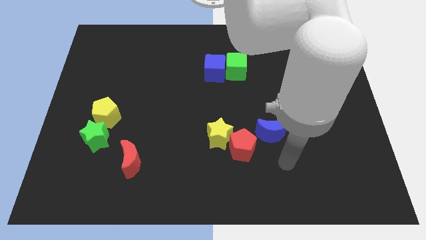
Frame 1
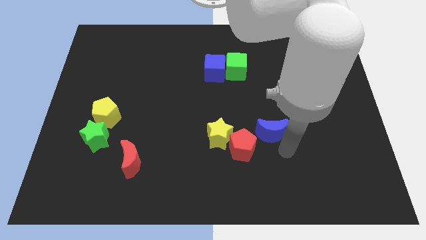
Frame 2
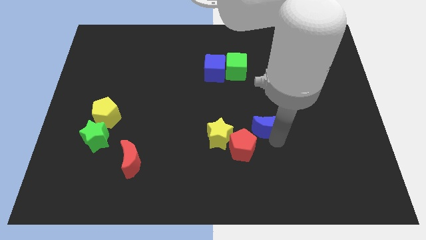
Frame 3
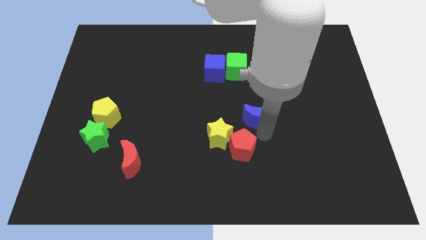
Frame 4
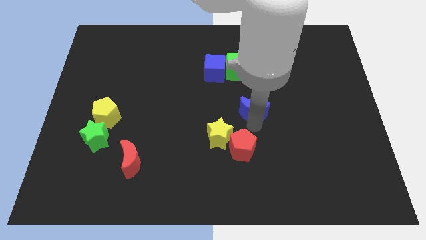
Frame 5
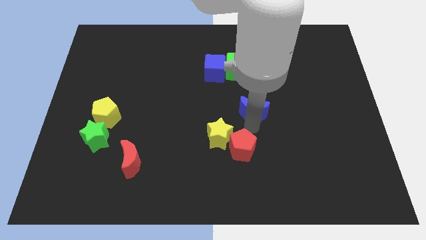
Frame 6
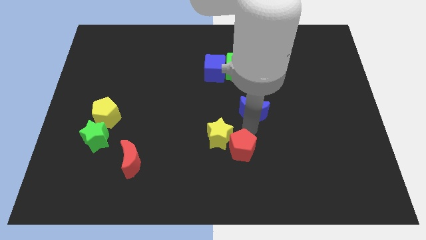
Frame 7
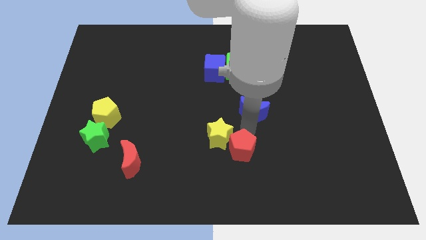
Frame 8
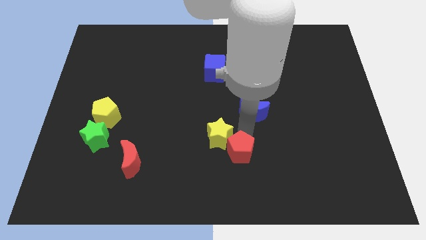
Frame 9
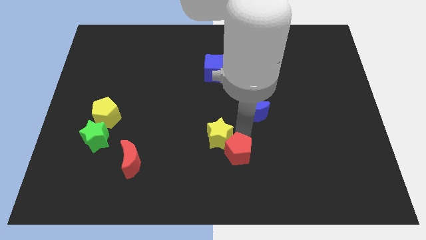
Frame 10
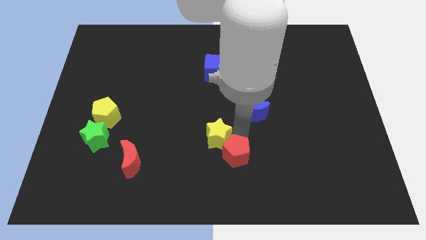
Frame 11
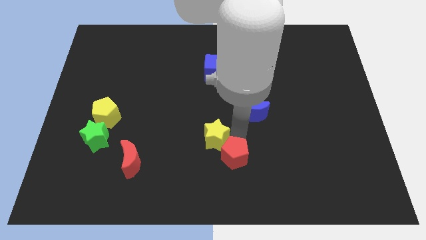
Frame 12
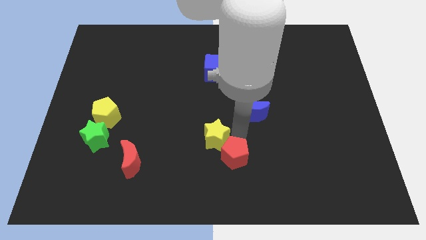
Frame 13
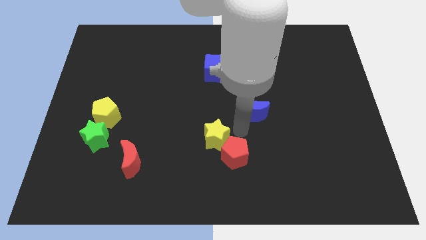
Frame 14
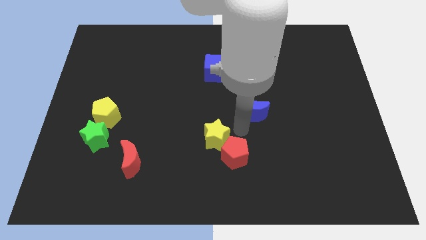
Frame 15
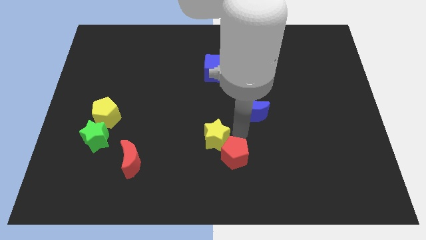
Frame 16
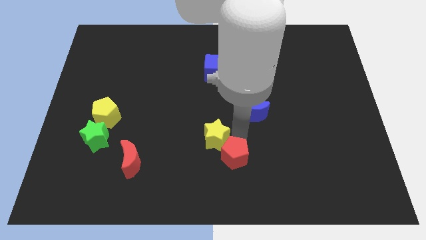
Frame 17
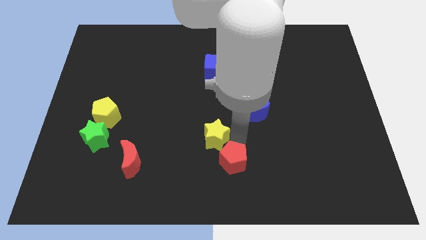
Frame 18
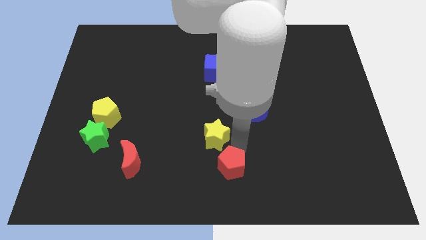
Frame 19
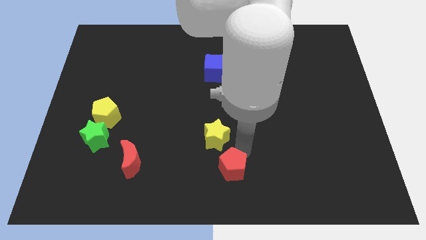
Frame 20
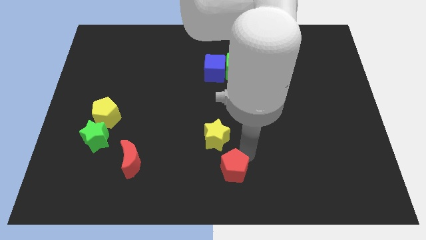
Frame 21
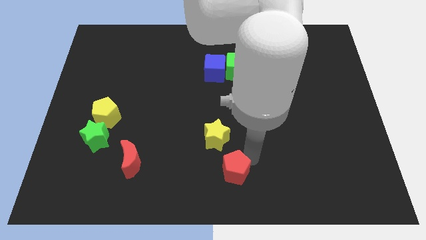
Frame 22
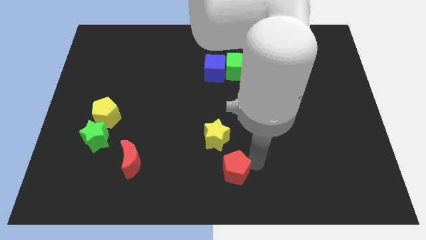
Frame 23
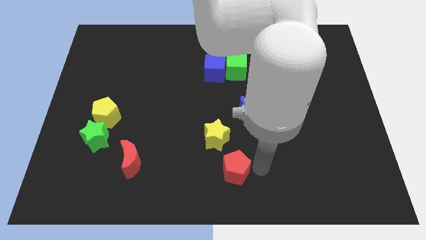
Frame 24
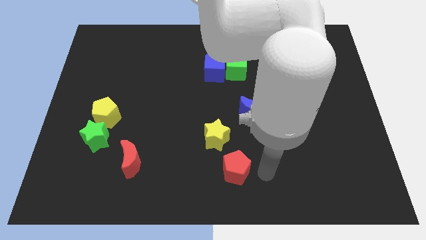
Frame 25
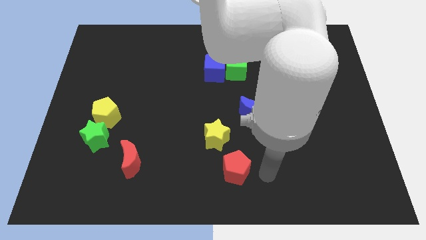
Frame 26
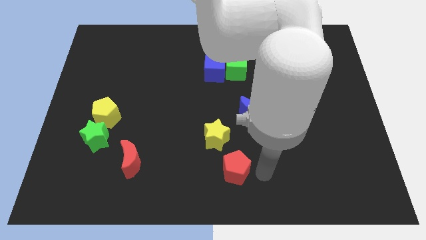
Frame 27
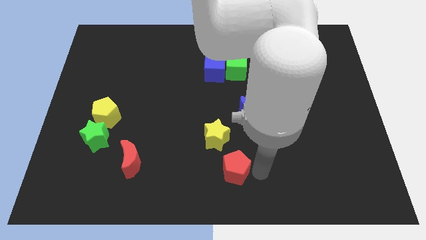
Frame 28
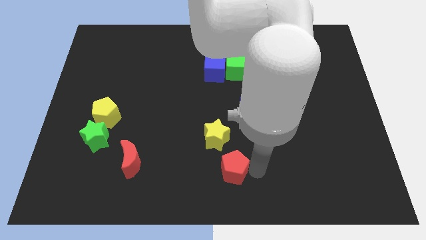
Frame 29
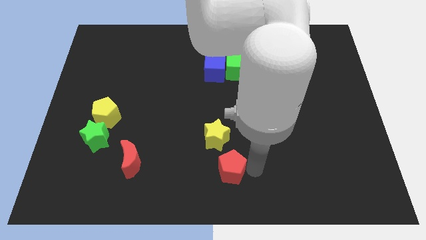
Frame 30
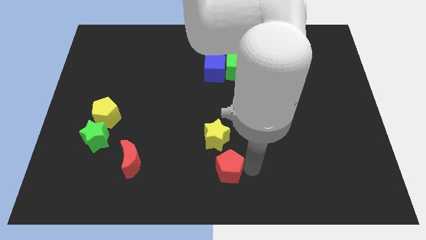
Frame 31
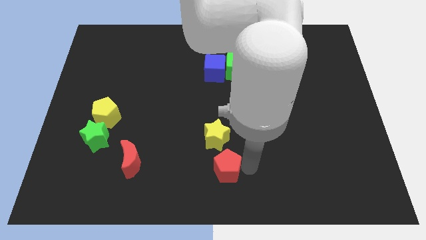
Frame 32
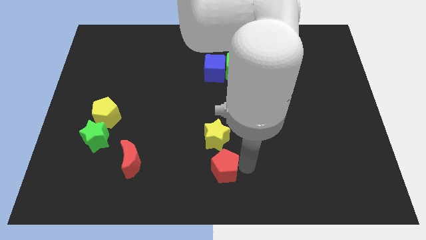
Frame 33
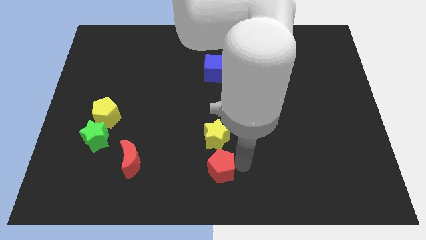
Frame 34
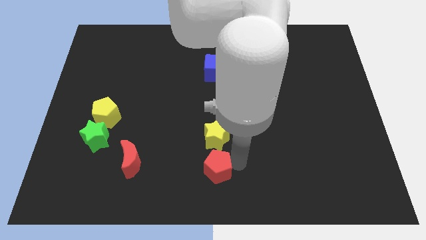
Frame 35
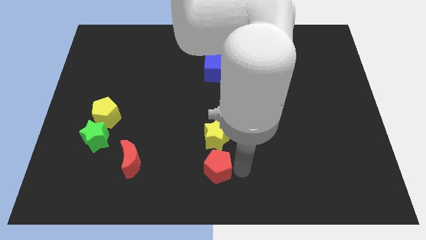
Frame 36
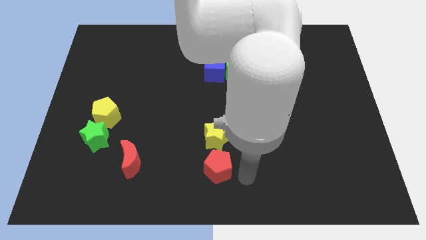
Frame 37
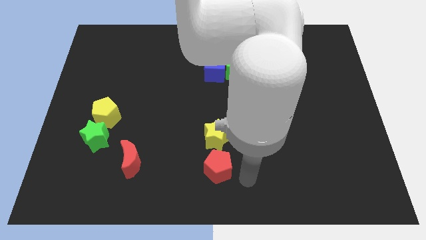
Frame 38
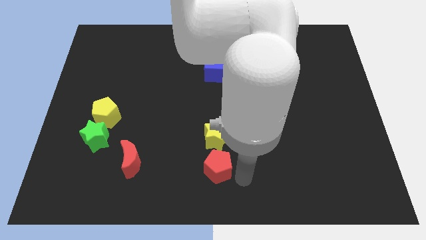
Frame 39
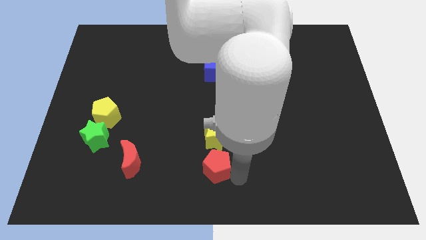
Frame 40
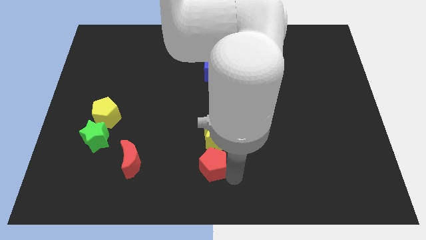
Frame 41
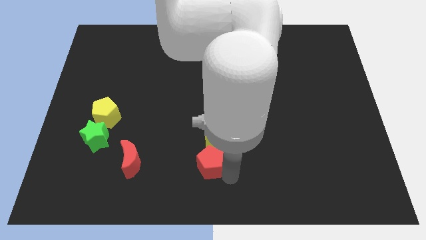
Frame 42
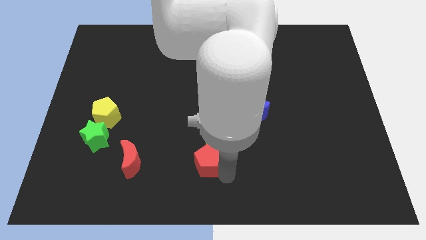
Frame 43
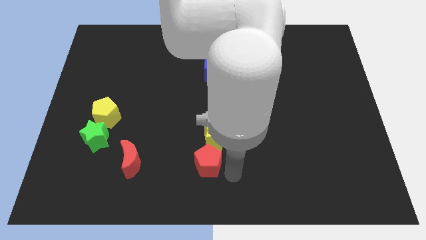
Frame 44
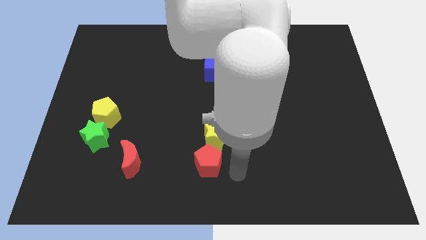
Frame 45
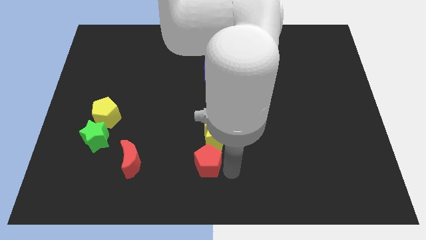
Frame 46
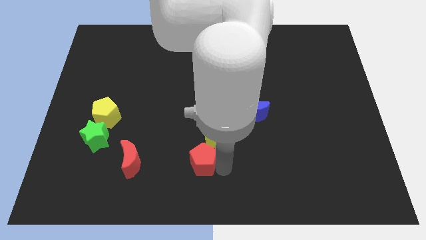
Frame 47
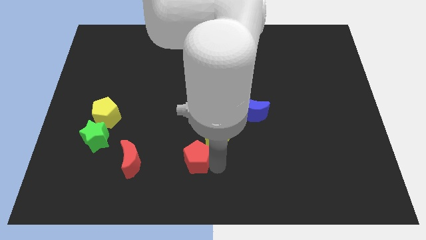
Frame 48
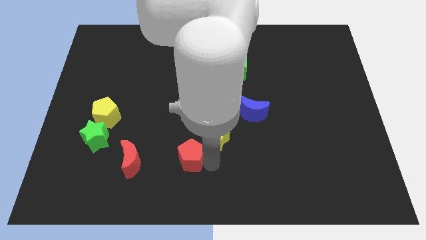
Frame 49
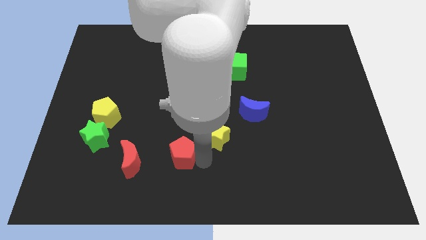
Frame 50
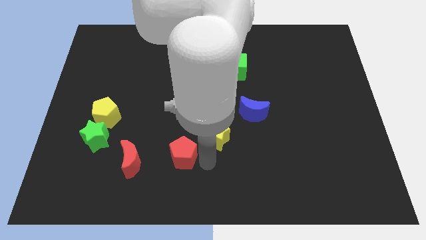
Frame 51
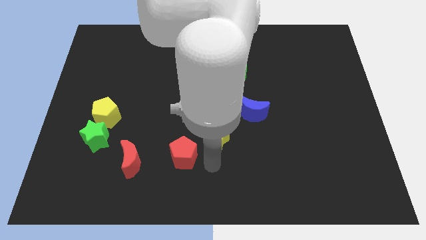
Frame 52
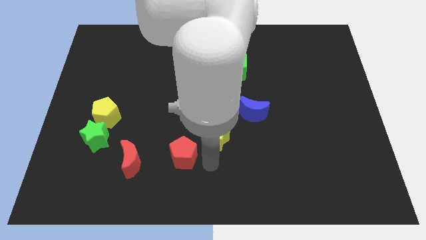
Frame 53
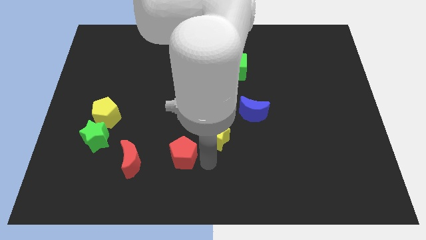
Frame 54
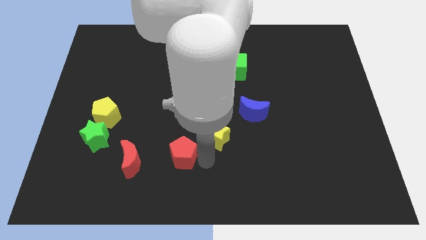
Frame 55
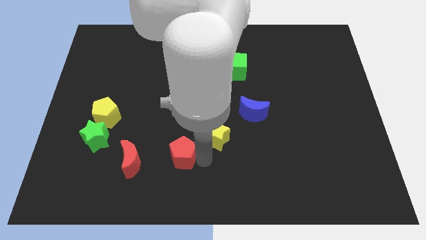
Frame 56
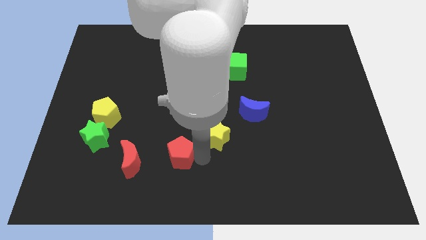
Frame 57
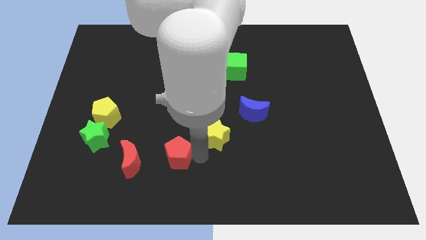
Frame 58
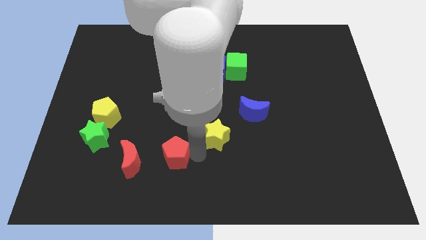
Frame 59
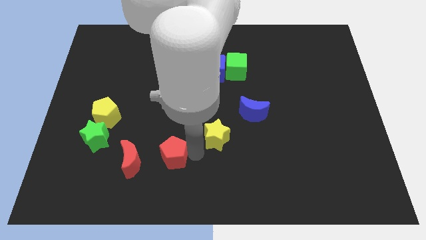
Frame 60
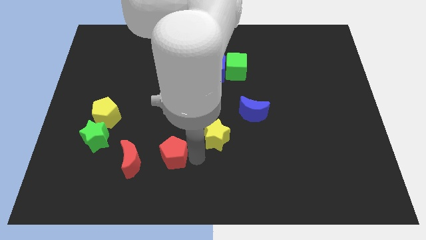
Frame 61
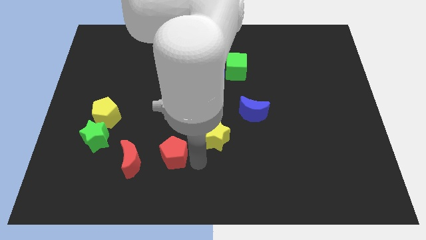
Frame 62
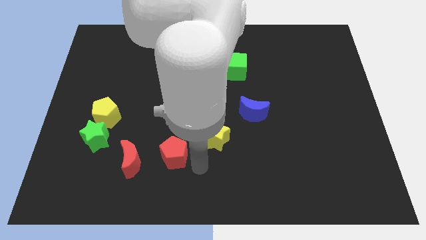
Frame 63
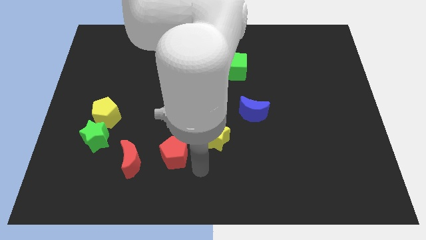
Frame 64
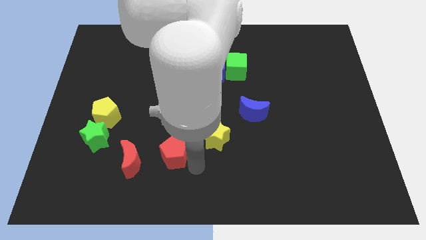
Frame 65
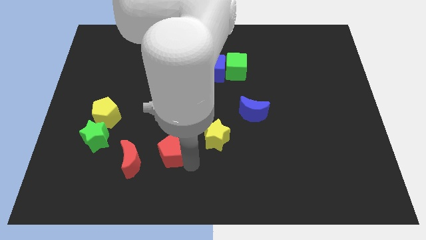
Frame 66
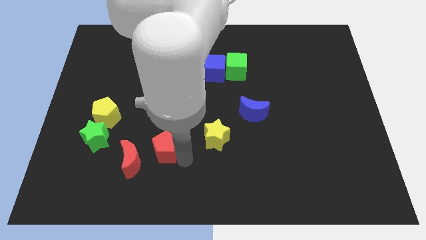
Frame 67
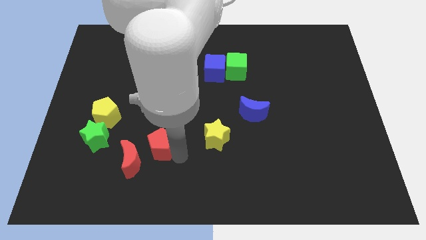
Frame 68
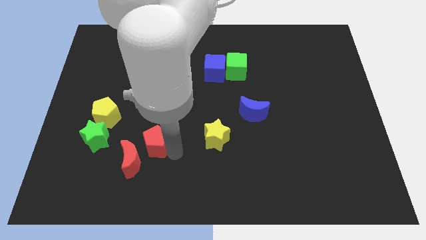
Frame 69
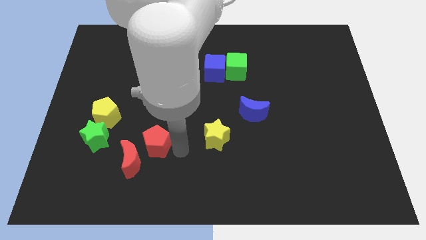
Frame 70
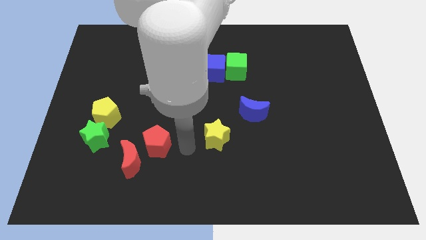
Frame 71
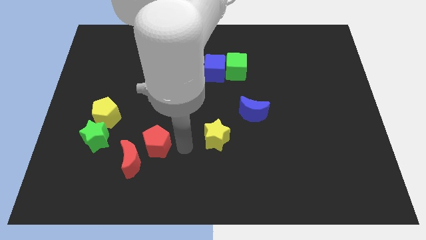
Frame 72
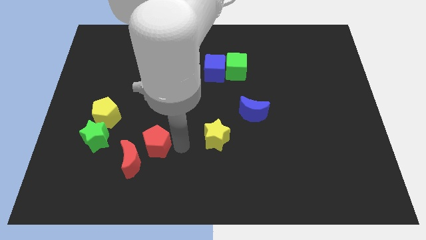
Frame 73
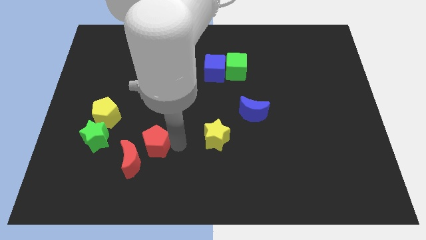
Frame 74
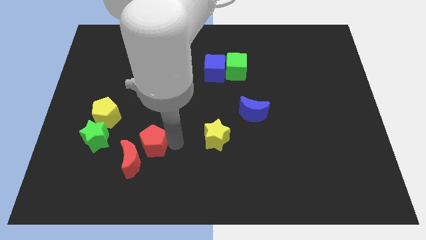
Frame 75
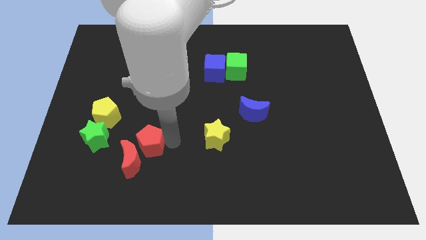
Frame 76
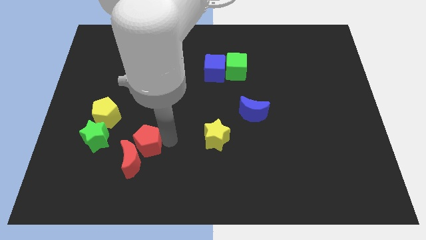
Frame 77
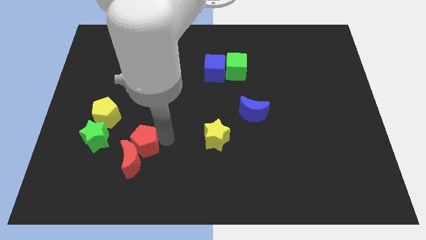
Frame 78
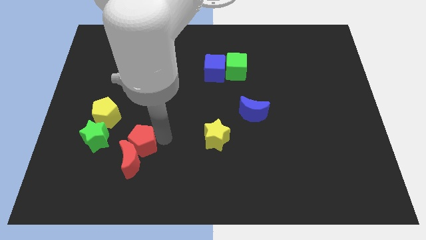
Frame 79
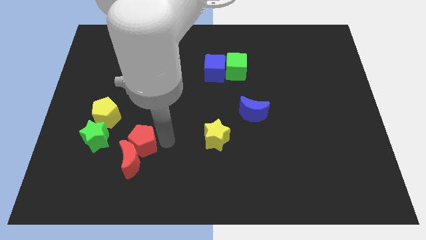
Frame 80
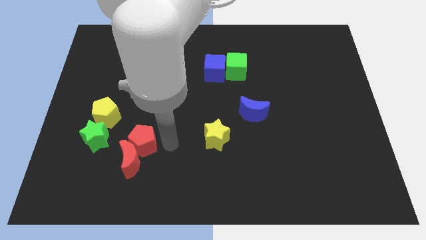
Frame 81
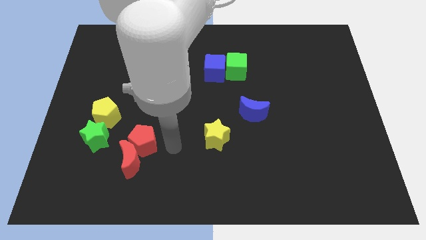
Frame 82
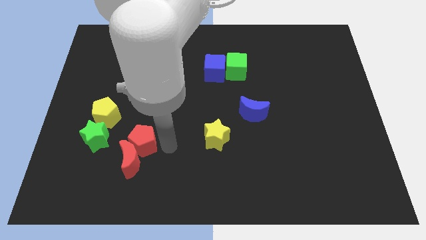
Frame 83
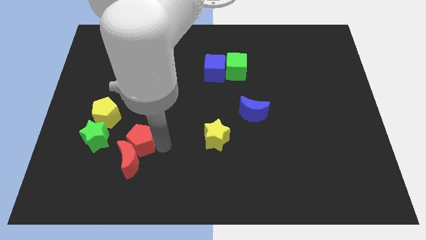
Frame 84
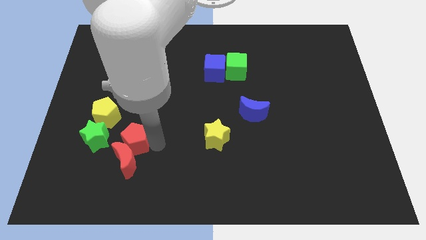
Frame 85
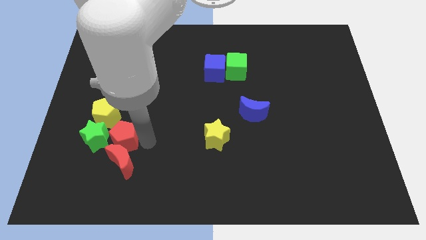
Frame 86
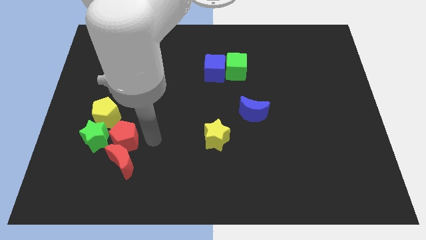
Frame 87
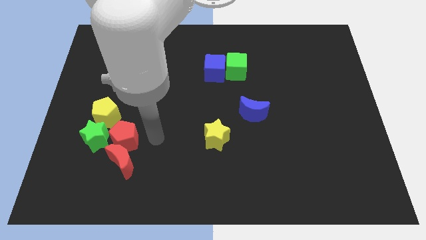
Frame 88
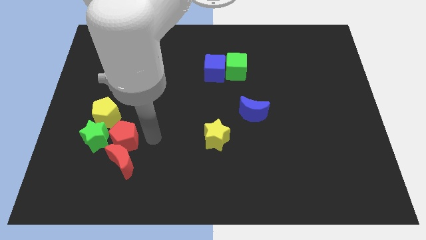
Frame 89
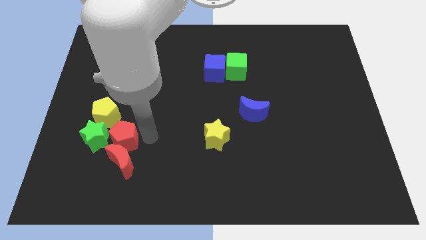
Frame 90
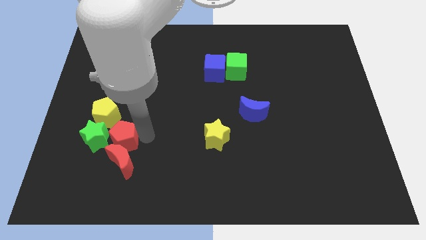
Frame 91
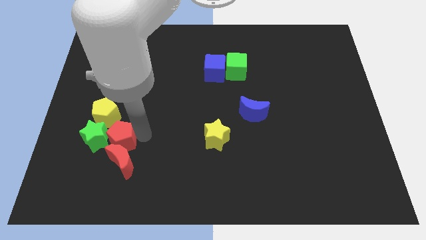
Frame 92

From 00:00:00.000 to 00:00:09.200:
slide the red pentagon next to the green star
